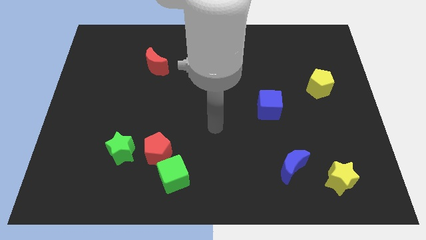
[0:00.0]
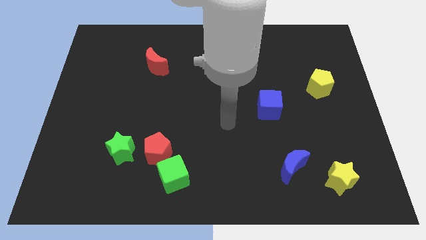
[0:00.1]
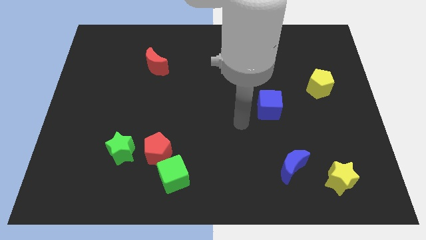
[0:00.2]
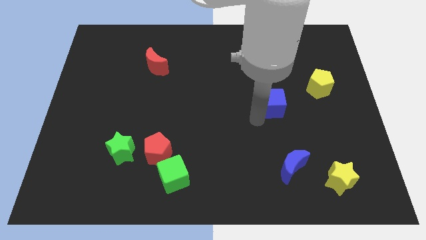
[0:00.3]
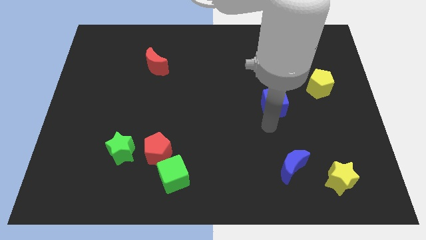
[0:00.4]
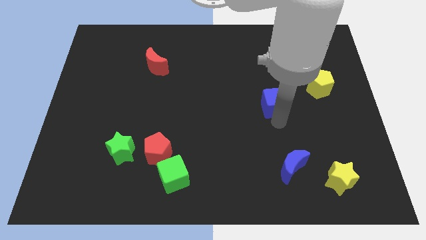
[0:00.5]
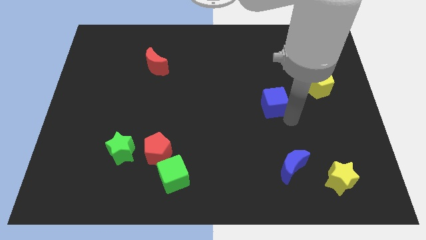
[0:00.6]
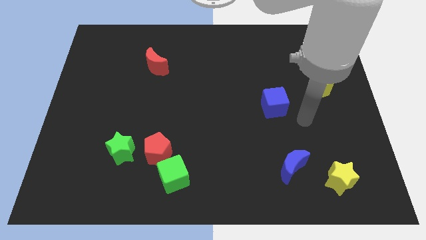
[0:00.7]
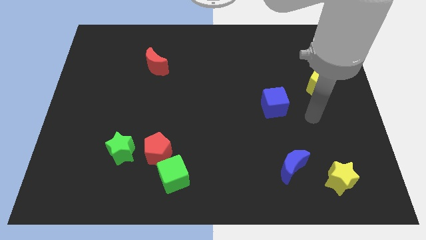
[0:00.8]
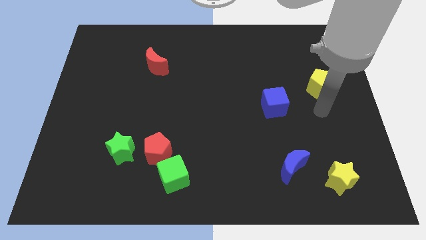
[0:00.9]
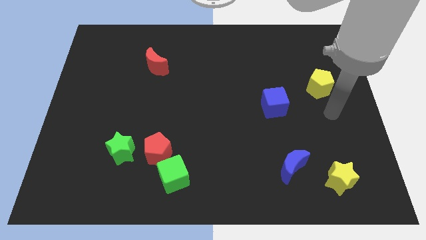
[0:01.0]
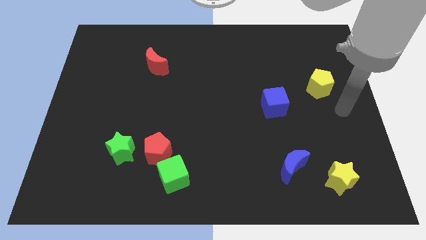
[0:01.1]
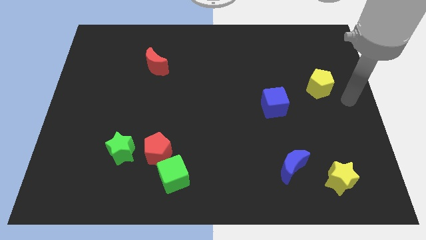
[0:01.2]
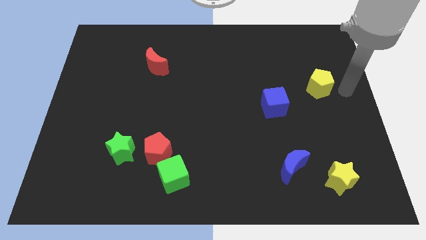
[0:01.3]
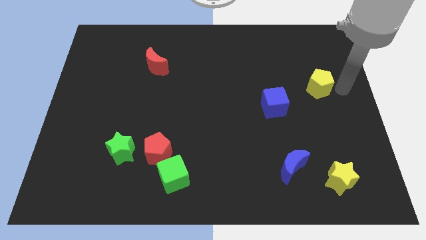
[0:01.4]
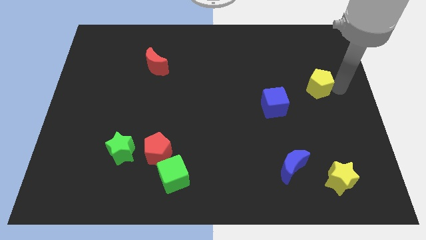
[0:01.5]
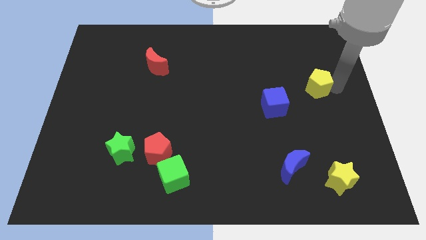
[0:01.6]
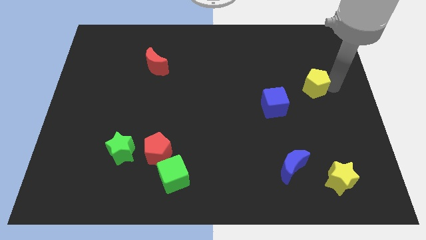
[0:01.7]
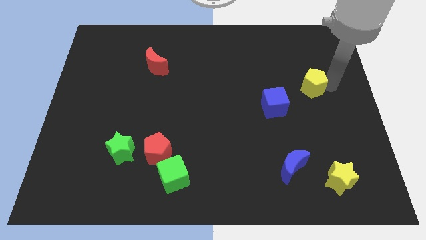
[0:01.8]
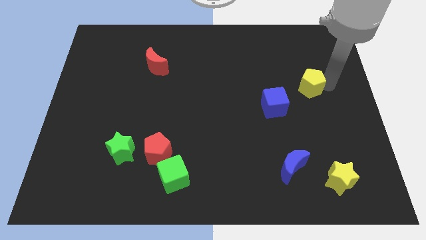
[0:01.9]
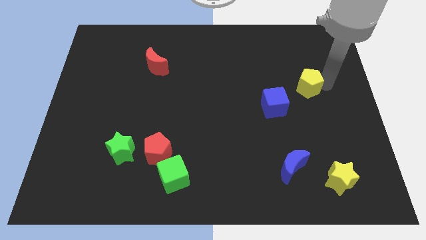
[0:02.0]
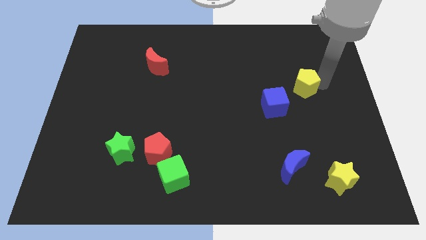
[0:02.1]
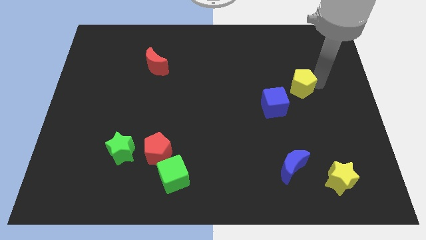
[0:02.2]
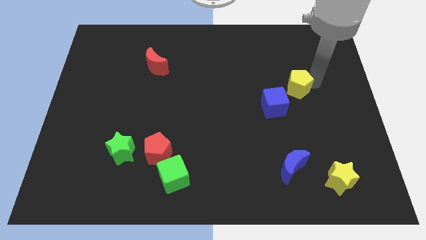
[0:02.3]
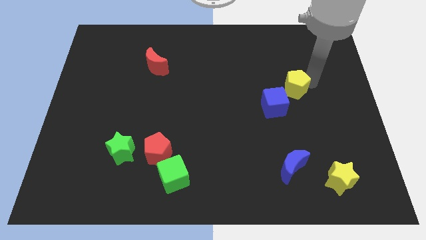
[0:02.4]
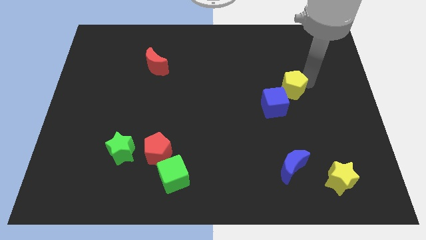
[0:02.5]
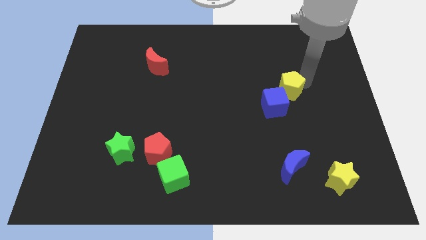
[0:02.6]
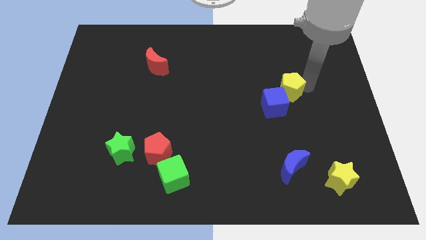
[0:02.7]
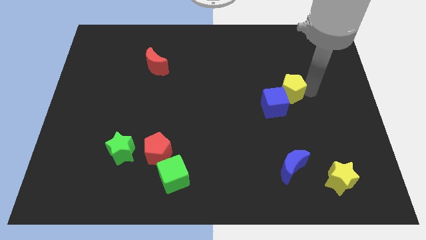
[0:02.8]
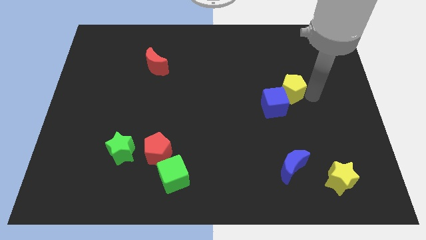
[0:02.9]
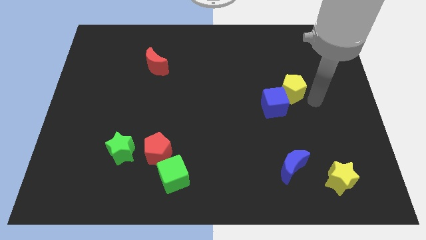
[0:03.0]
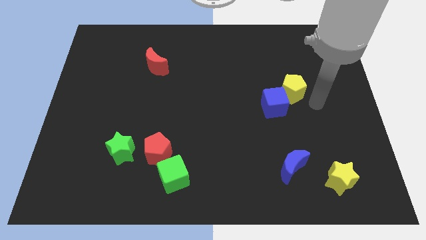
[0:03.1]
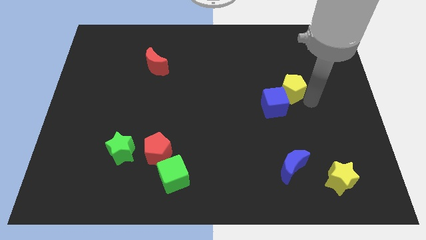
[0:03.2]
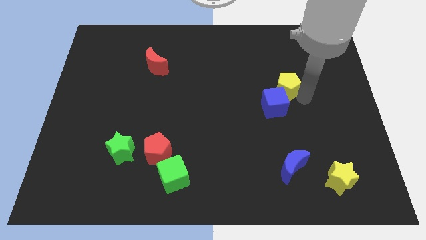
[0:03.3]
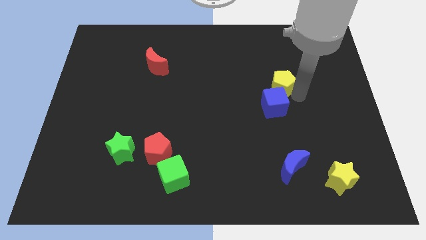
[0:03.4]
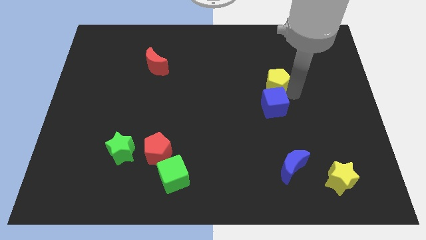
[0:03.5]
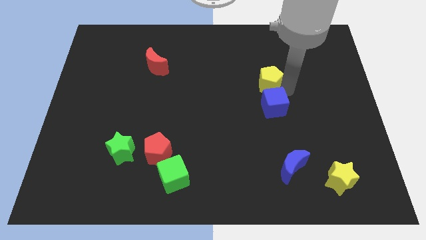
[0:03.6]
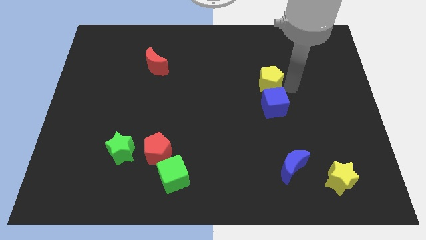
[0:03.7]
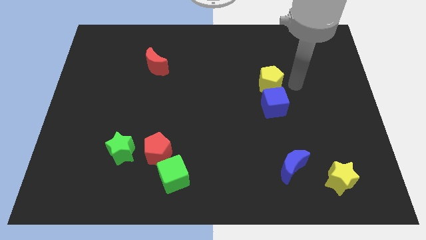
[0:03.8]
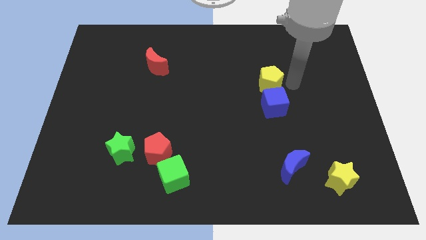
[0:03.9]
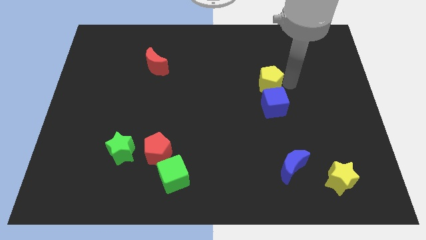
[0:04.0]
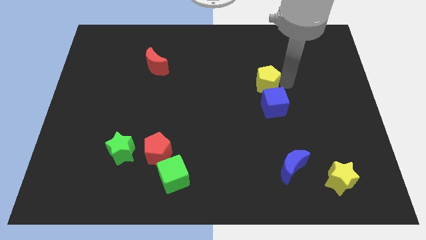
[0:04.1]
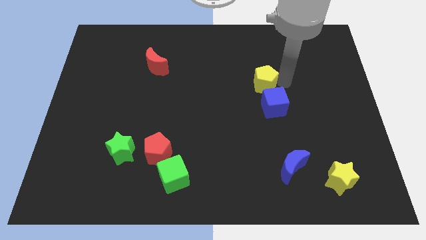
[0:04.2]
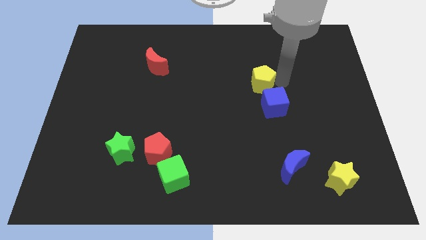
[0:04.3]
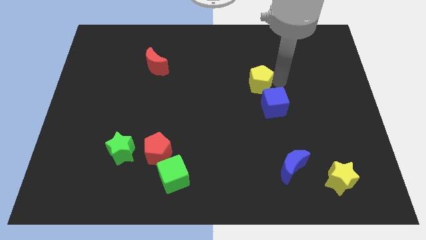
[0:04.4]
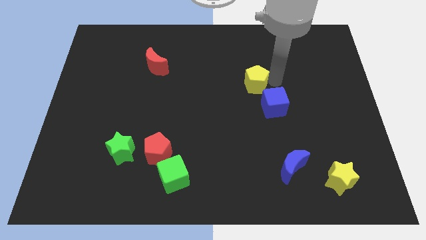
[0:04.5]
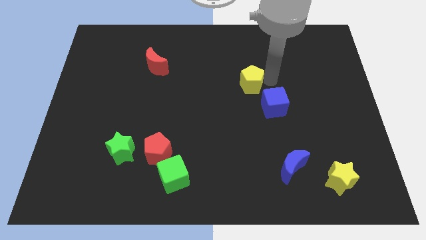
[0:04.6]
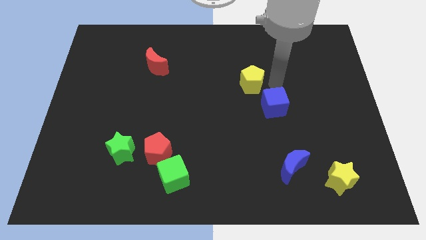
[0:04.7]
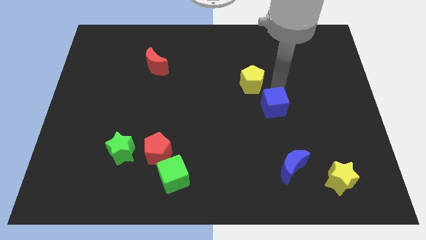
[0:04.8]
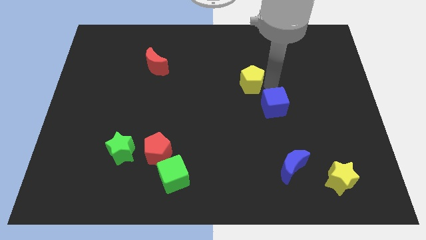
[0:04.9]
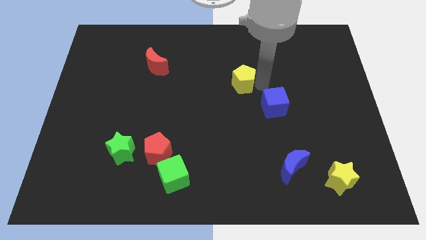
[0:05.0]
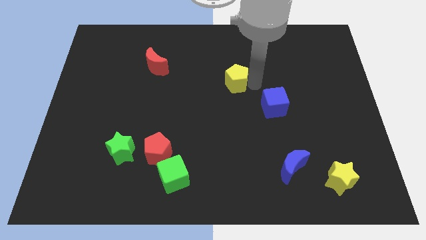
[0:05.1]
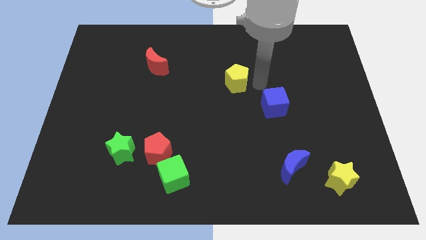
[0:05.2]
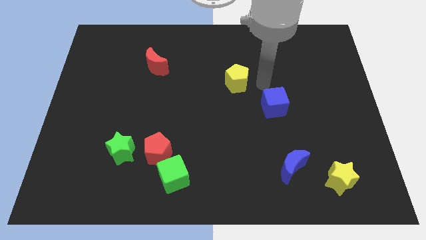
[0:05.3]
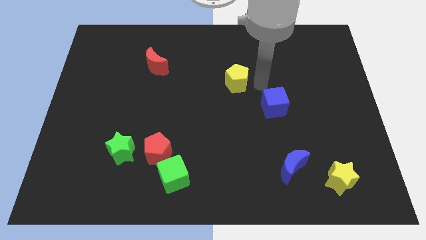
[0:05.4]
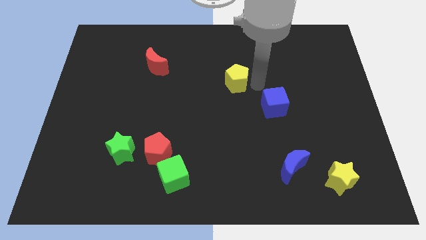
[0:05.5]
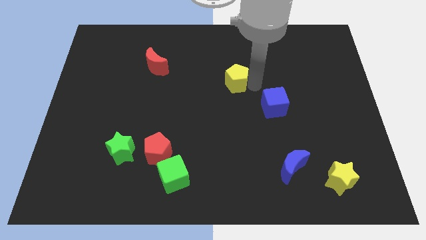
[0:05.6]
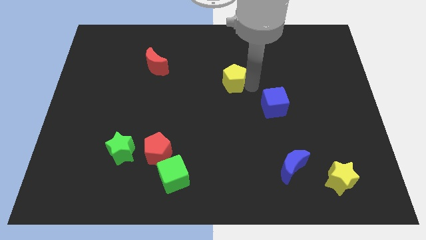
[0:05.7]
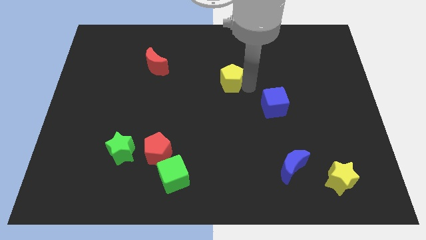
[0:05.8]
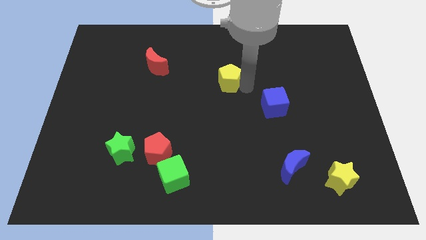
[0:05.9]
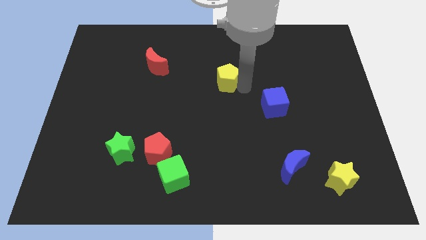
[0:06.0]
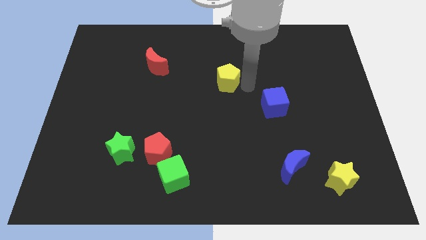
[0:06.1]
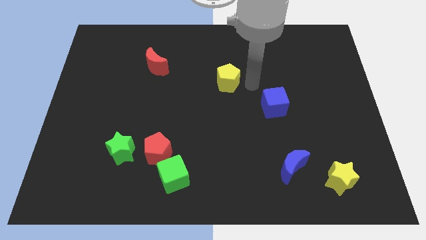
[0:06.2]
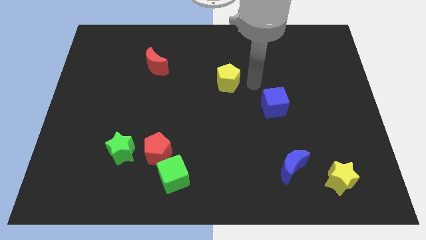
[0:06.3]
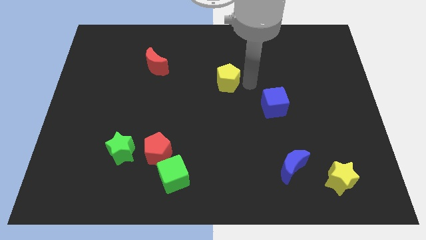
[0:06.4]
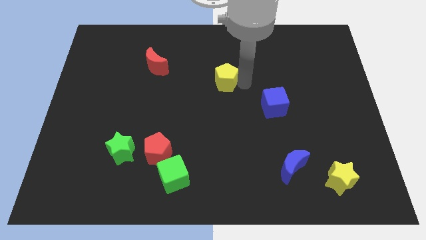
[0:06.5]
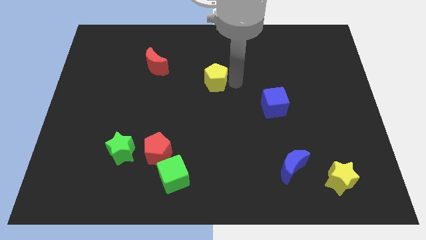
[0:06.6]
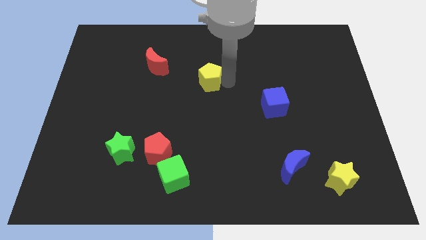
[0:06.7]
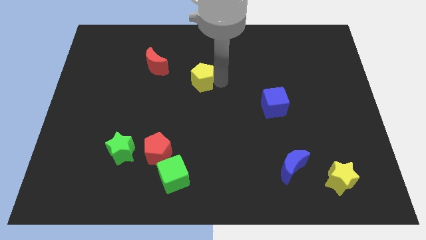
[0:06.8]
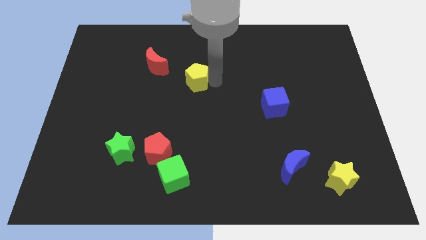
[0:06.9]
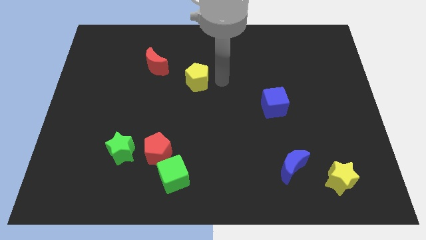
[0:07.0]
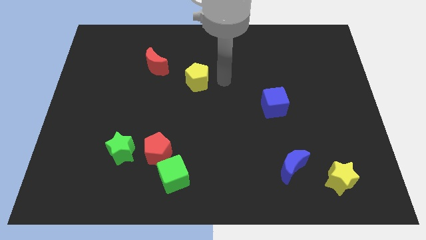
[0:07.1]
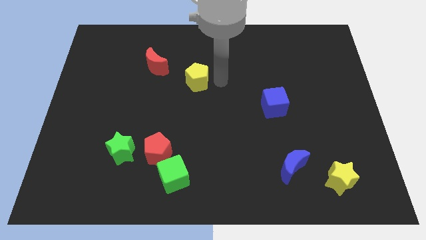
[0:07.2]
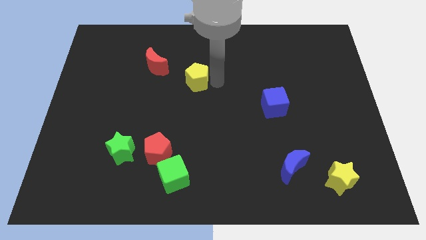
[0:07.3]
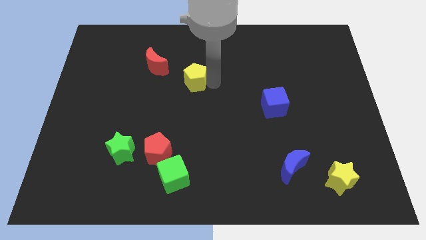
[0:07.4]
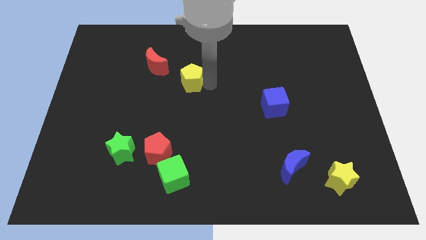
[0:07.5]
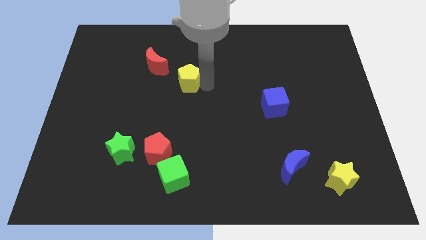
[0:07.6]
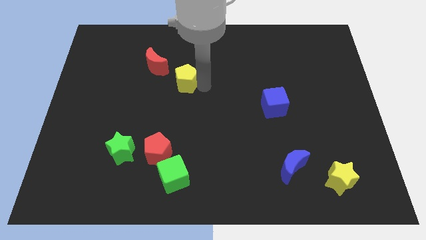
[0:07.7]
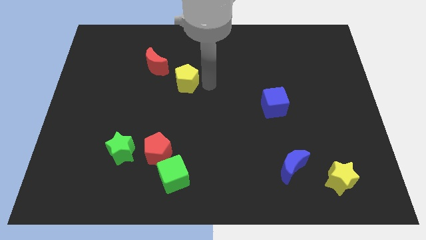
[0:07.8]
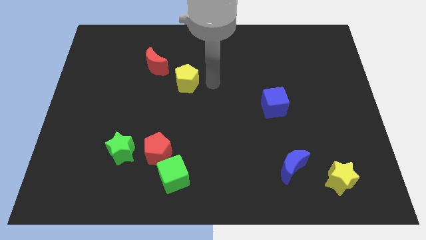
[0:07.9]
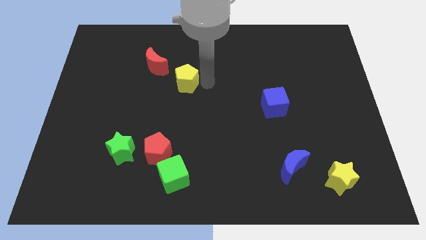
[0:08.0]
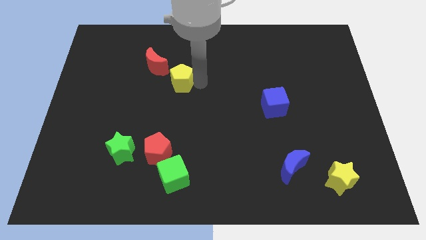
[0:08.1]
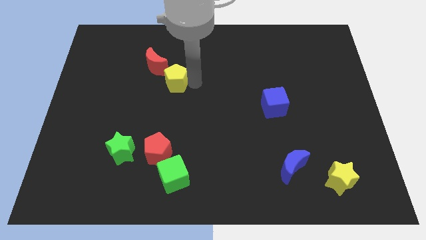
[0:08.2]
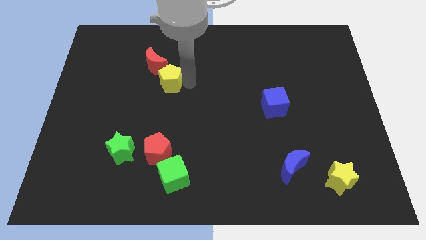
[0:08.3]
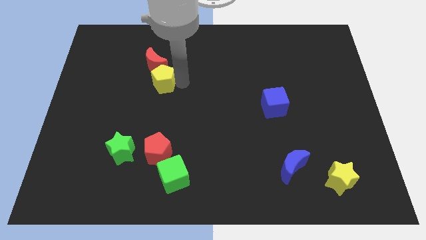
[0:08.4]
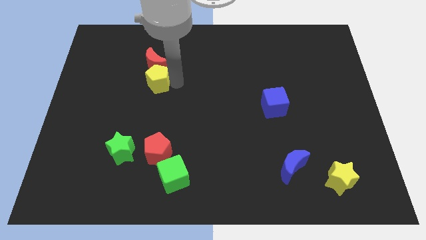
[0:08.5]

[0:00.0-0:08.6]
move the yellow pentagon to the bottom left side of the red moon
